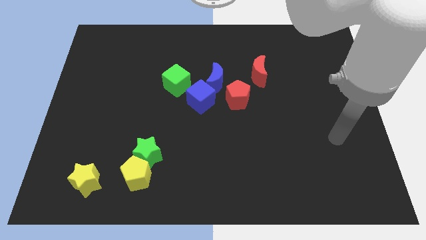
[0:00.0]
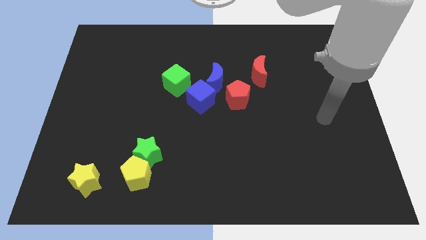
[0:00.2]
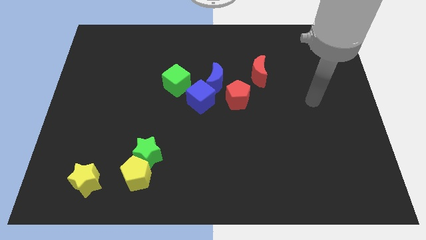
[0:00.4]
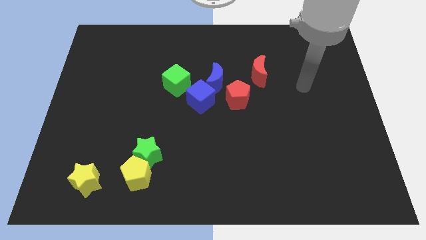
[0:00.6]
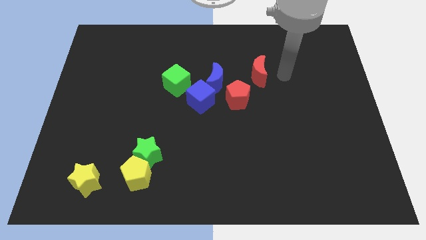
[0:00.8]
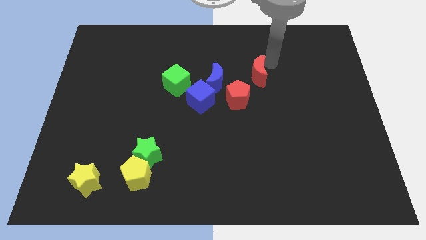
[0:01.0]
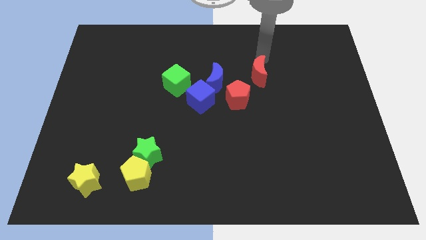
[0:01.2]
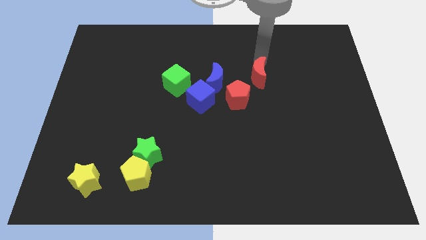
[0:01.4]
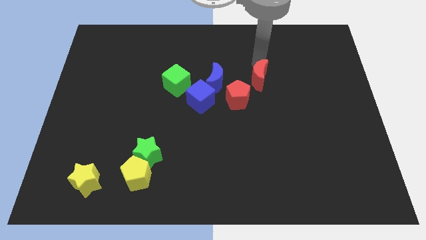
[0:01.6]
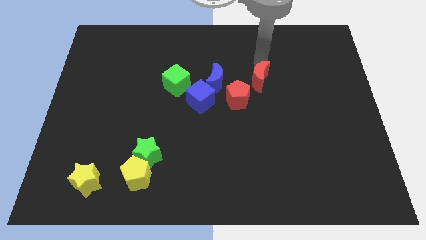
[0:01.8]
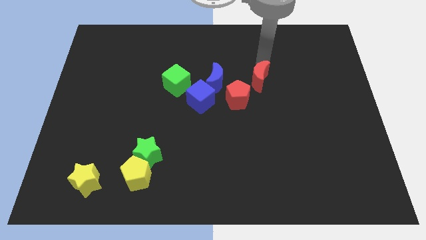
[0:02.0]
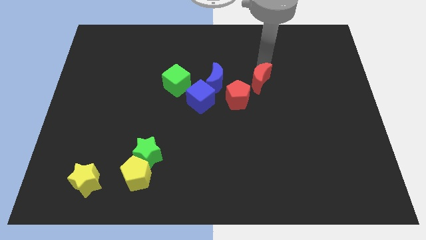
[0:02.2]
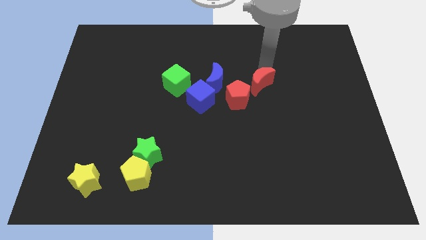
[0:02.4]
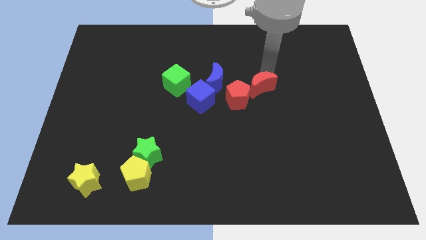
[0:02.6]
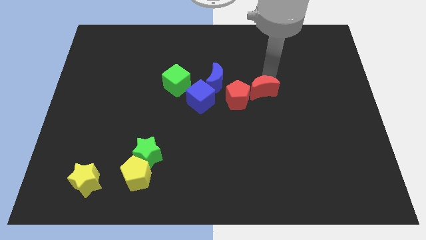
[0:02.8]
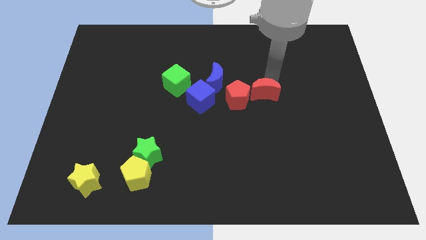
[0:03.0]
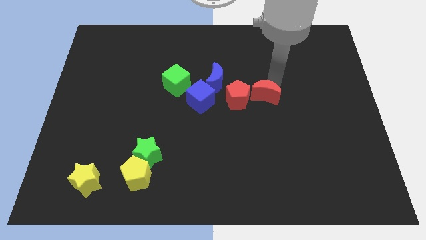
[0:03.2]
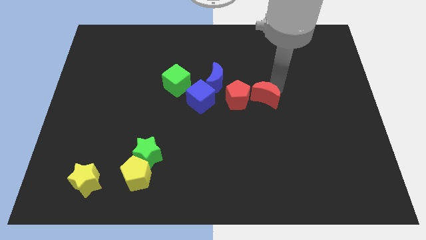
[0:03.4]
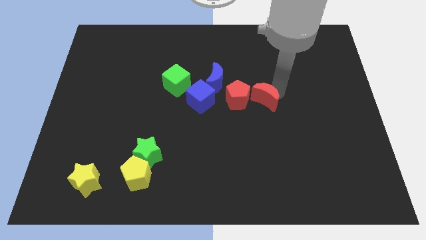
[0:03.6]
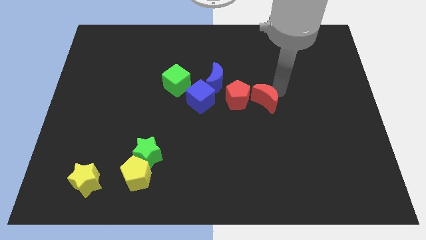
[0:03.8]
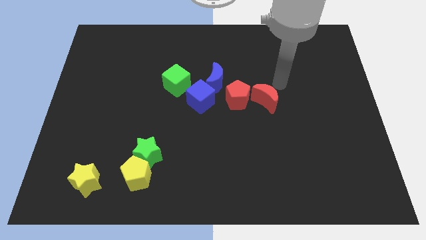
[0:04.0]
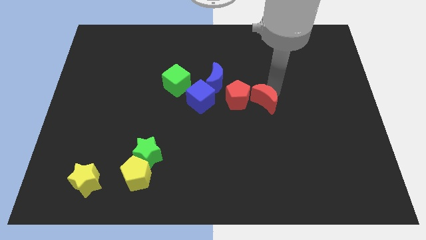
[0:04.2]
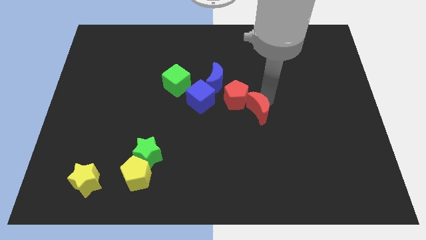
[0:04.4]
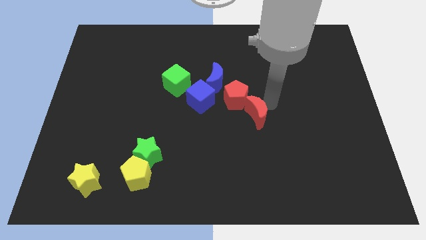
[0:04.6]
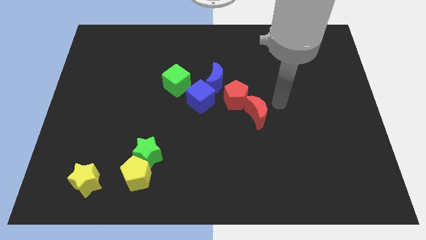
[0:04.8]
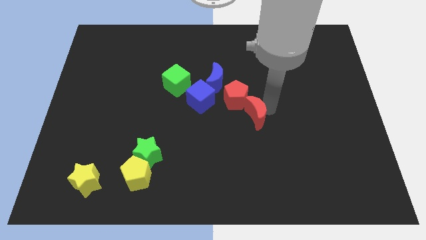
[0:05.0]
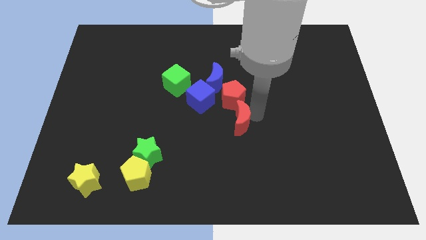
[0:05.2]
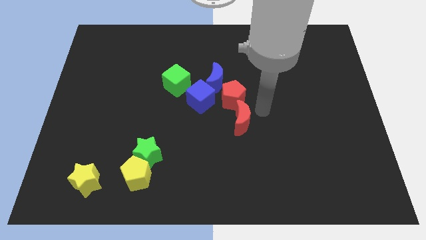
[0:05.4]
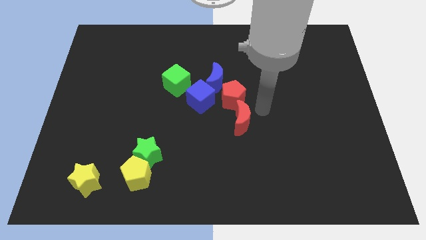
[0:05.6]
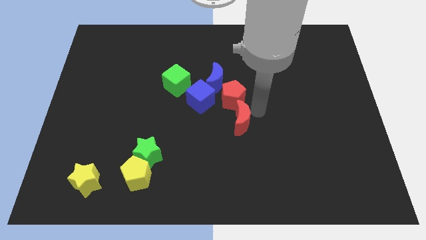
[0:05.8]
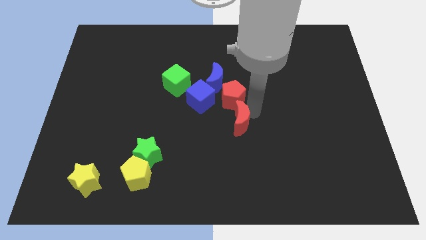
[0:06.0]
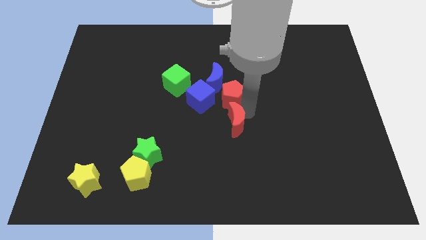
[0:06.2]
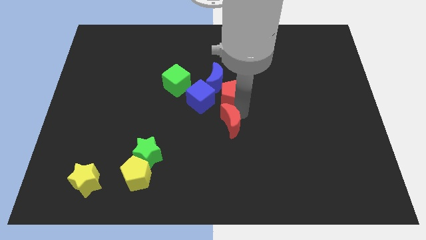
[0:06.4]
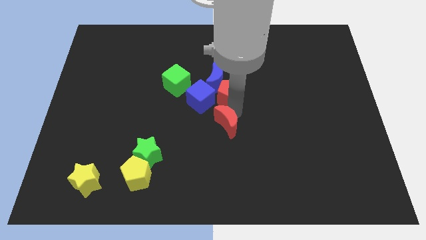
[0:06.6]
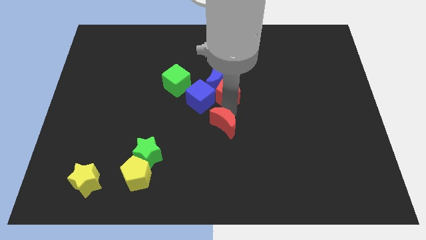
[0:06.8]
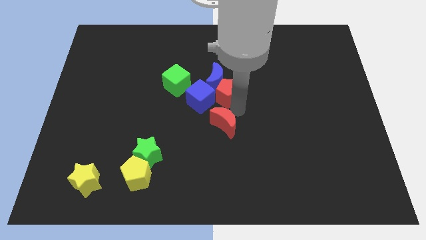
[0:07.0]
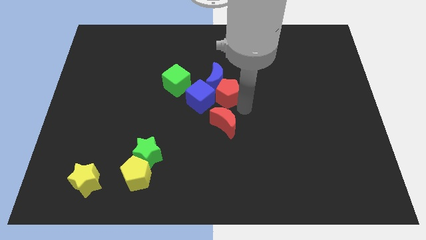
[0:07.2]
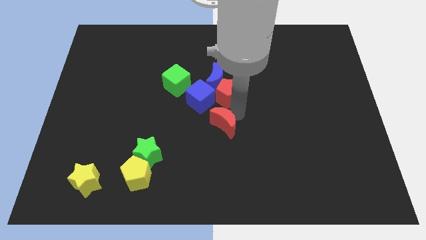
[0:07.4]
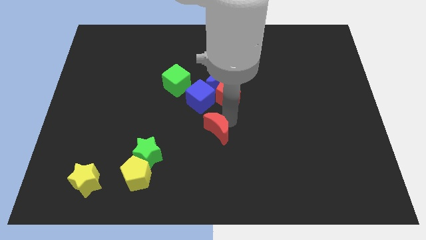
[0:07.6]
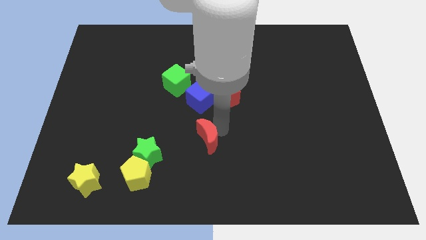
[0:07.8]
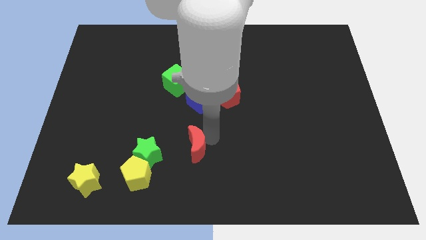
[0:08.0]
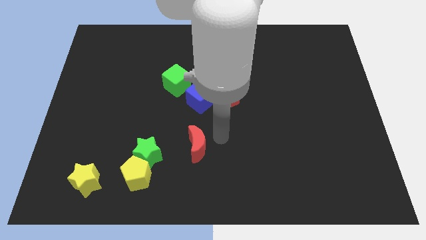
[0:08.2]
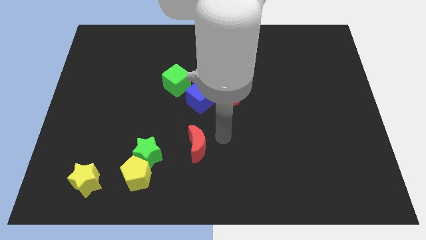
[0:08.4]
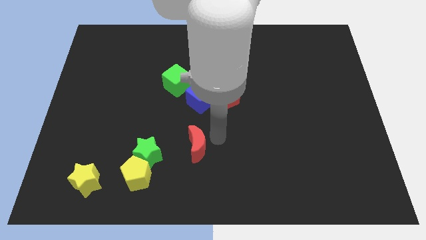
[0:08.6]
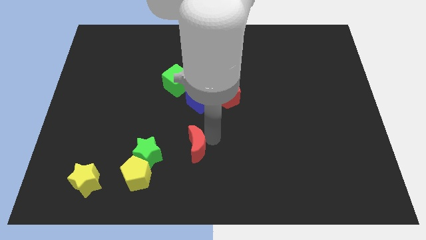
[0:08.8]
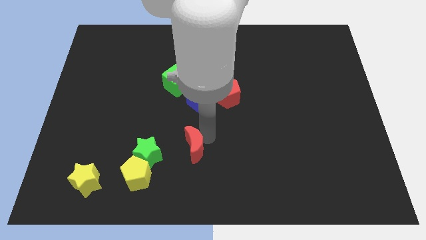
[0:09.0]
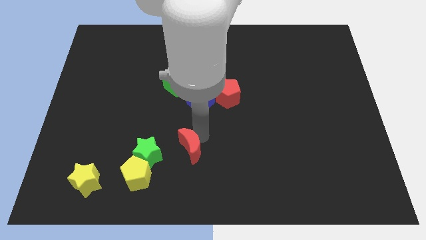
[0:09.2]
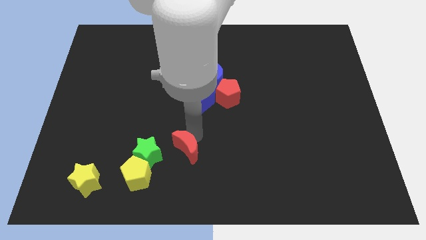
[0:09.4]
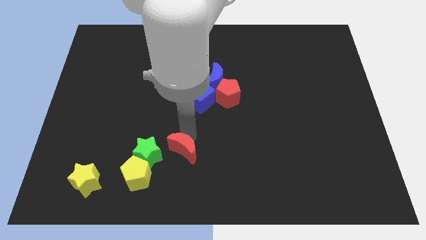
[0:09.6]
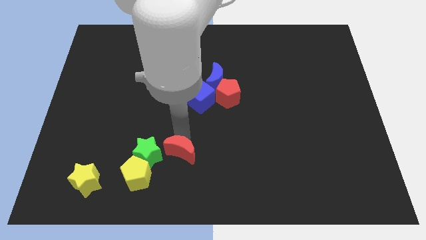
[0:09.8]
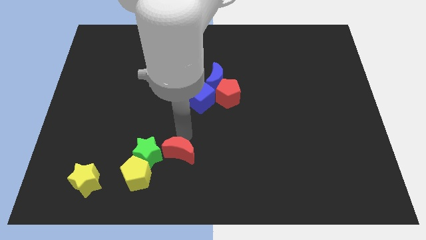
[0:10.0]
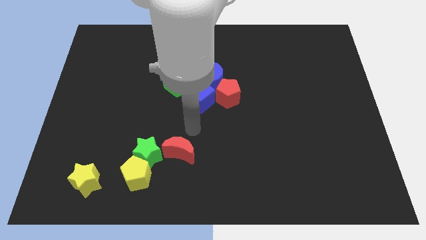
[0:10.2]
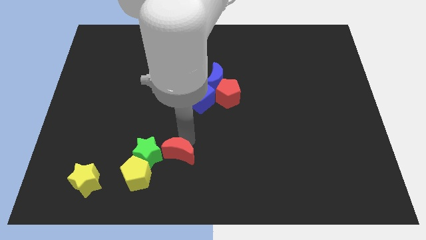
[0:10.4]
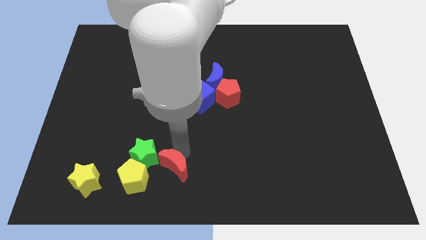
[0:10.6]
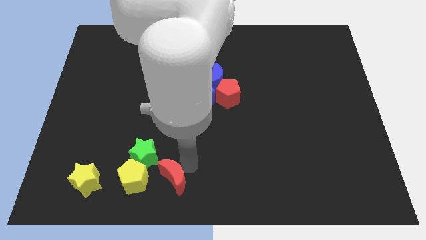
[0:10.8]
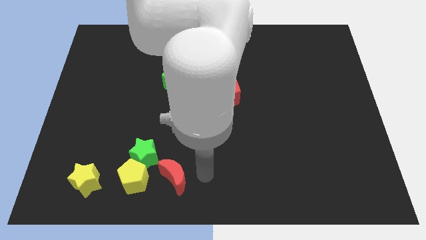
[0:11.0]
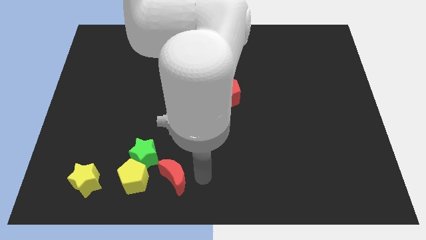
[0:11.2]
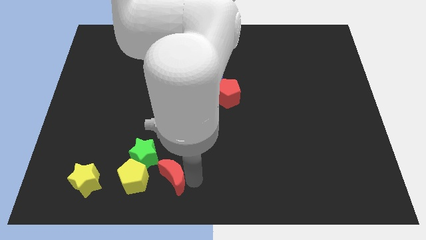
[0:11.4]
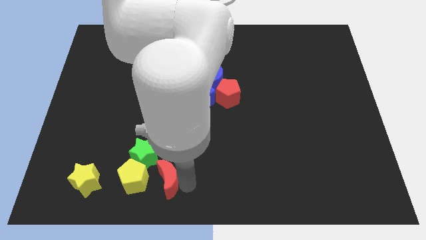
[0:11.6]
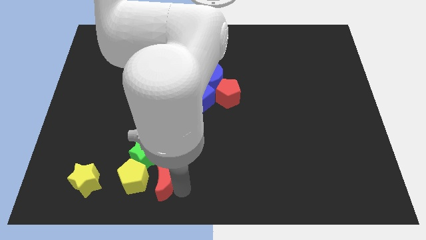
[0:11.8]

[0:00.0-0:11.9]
push the red moon to the yellow pentagon

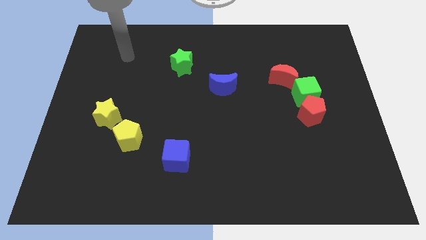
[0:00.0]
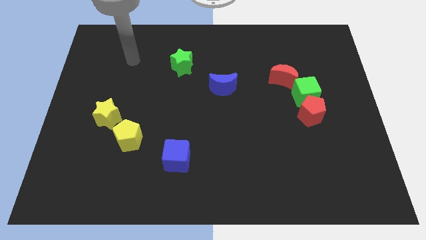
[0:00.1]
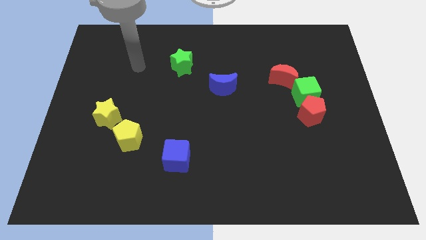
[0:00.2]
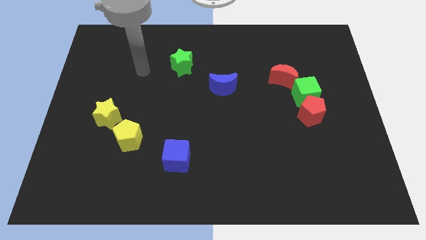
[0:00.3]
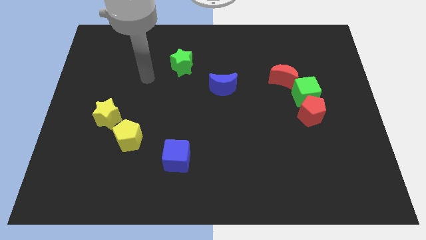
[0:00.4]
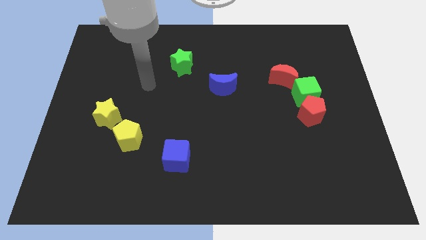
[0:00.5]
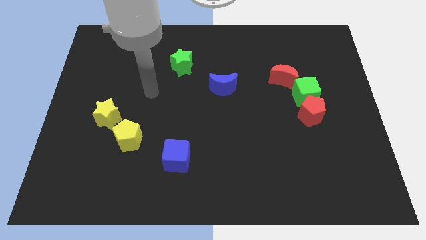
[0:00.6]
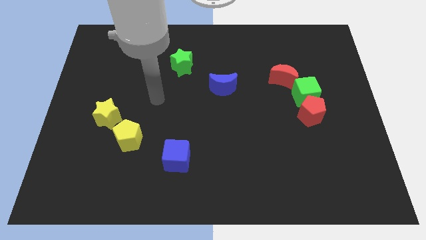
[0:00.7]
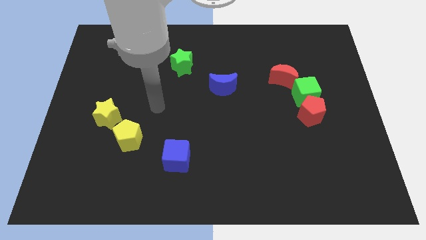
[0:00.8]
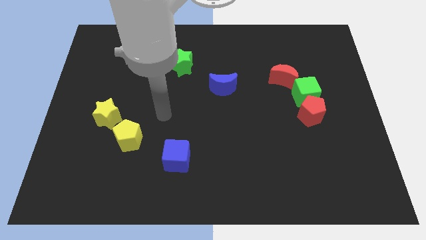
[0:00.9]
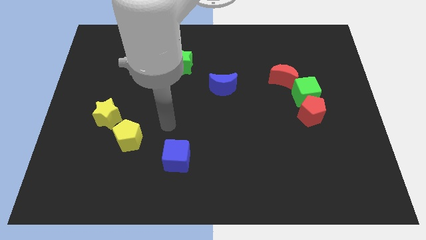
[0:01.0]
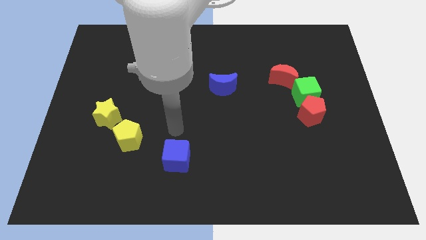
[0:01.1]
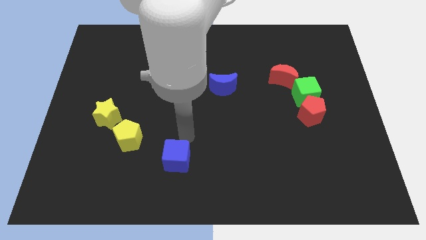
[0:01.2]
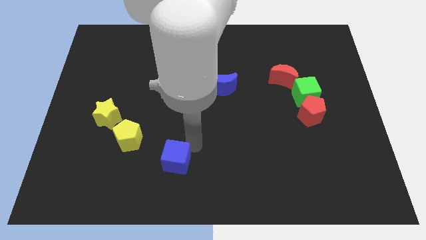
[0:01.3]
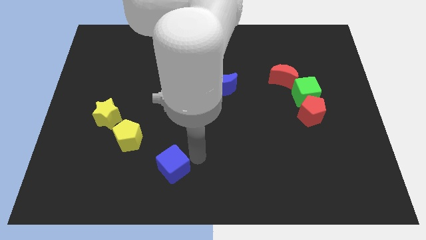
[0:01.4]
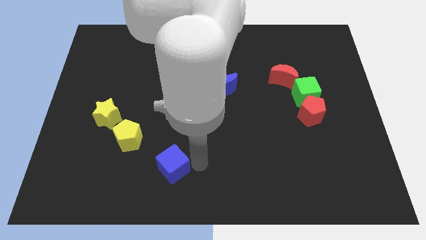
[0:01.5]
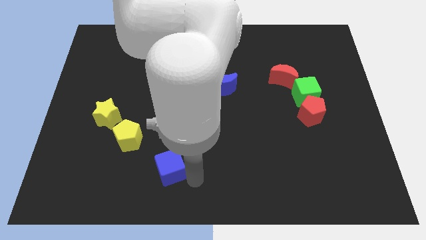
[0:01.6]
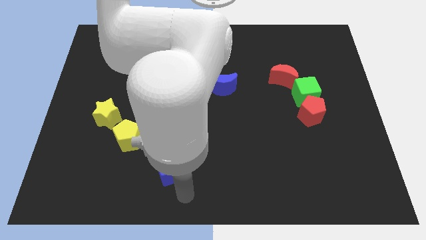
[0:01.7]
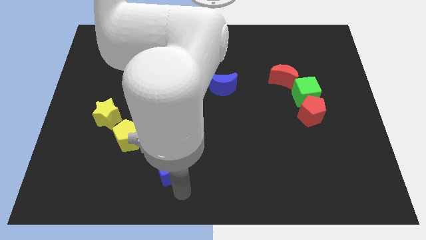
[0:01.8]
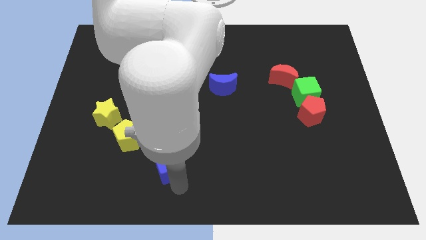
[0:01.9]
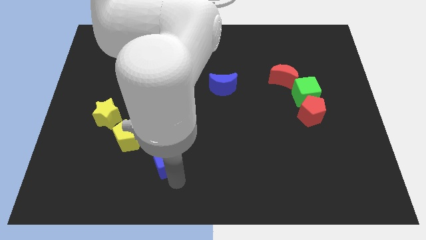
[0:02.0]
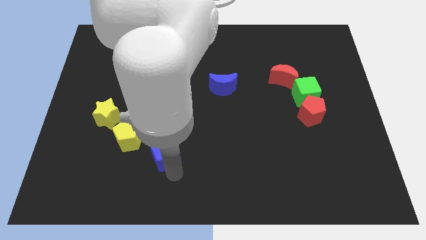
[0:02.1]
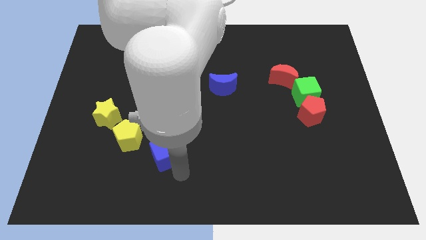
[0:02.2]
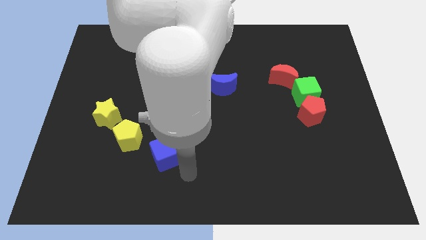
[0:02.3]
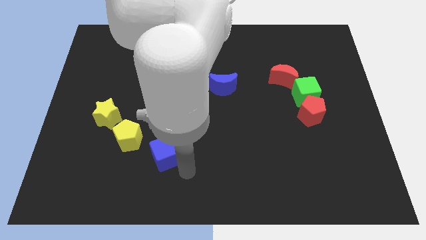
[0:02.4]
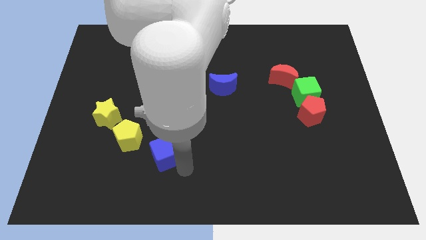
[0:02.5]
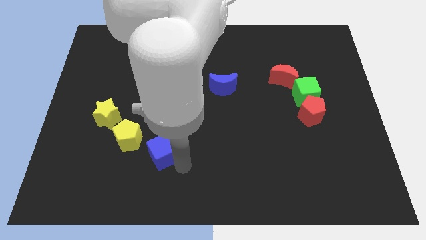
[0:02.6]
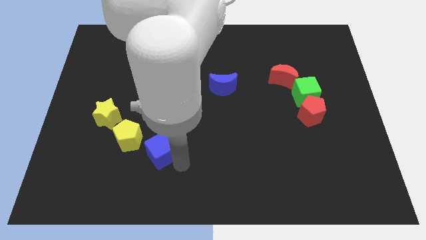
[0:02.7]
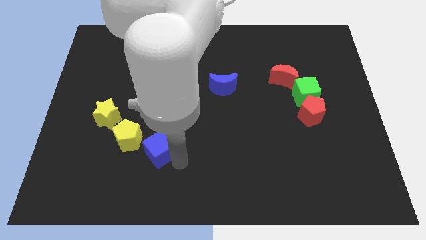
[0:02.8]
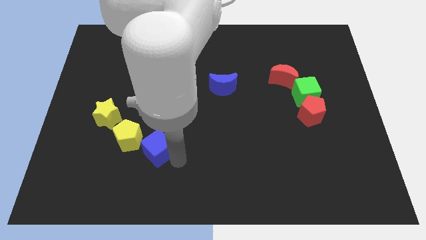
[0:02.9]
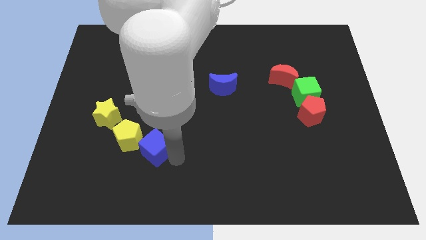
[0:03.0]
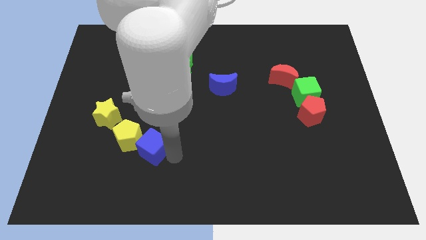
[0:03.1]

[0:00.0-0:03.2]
move the blue cube next to the yellow pentagon
